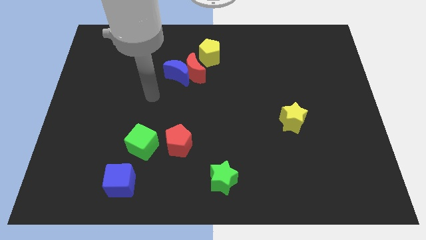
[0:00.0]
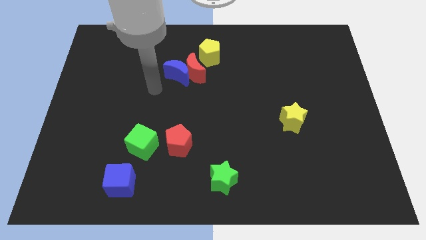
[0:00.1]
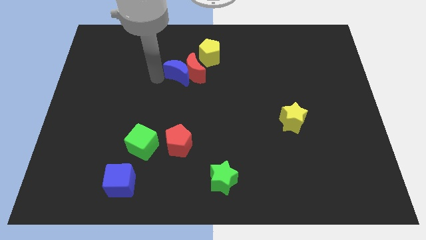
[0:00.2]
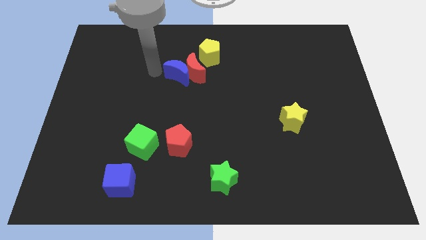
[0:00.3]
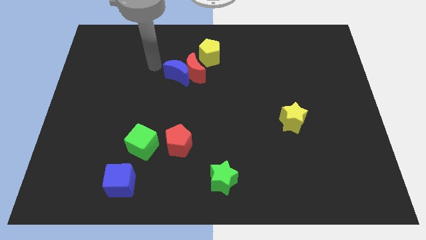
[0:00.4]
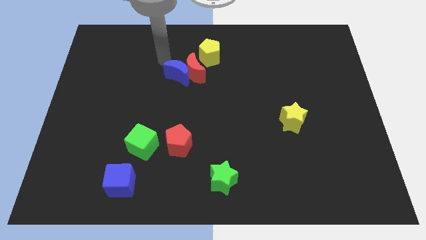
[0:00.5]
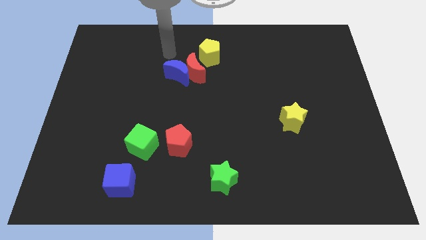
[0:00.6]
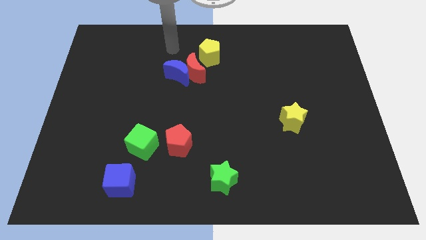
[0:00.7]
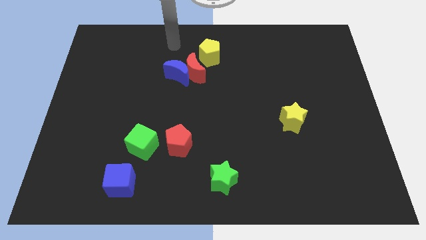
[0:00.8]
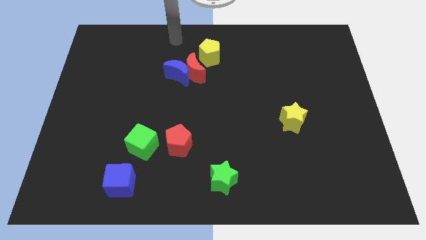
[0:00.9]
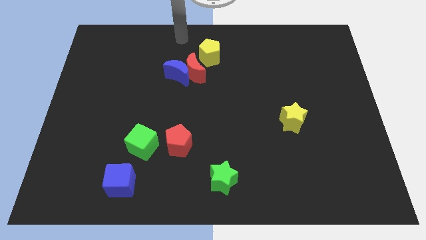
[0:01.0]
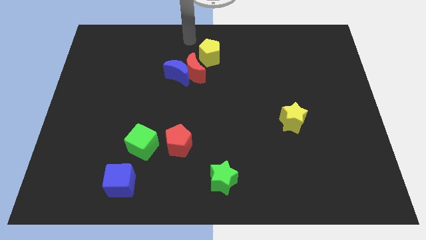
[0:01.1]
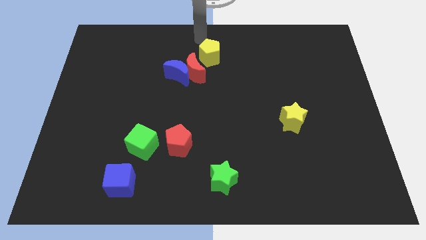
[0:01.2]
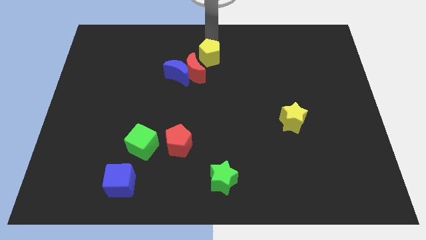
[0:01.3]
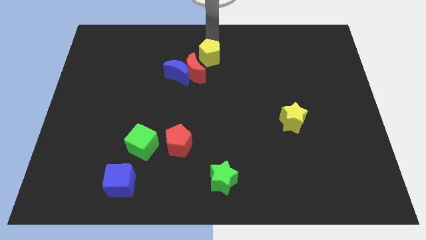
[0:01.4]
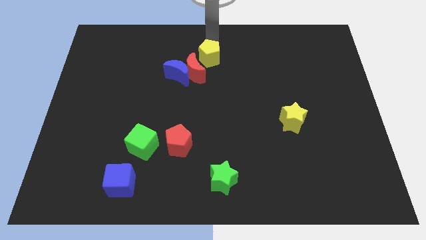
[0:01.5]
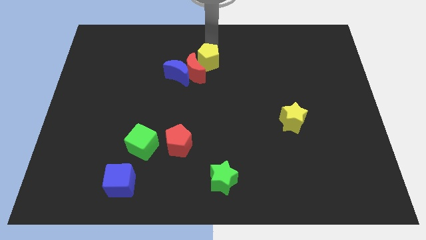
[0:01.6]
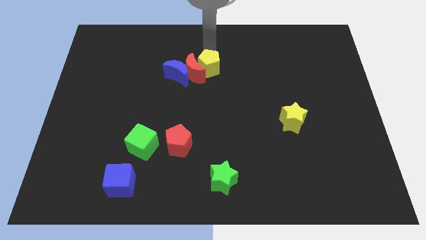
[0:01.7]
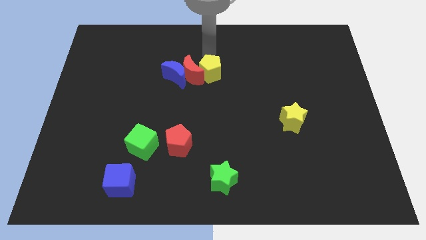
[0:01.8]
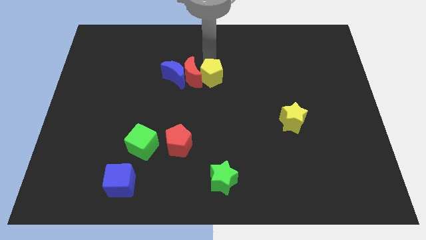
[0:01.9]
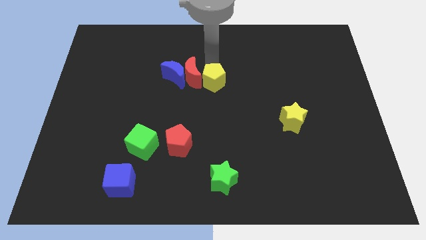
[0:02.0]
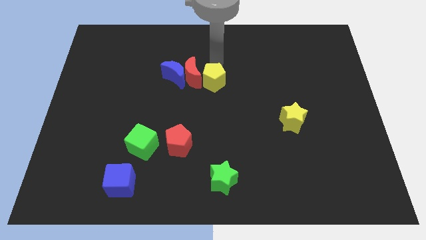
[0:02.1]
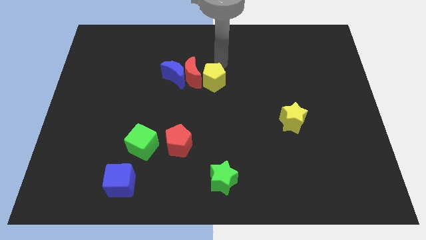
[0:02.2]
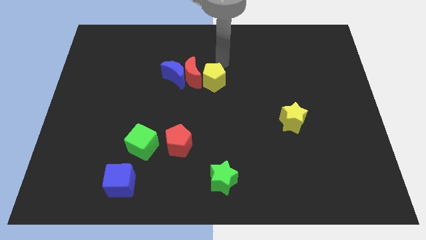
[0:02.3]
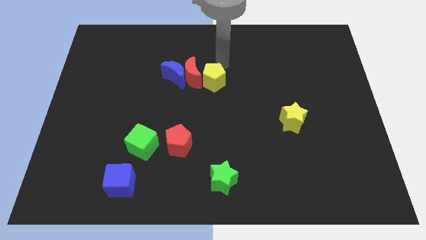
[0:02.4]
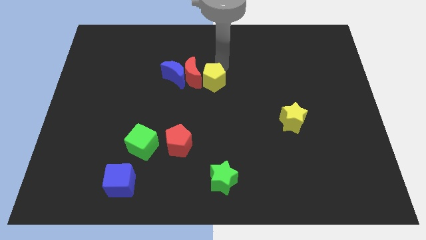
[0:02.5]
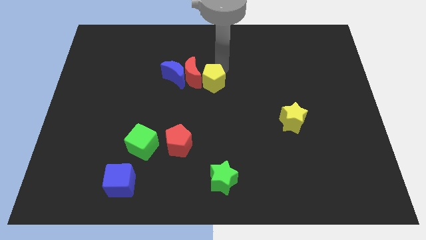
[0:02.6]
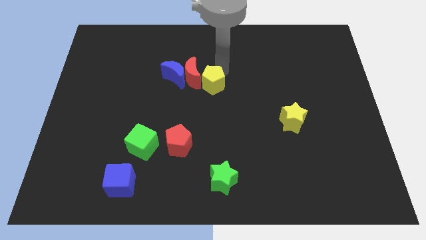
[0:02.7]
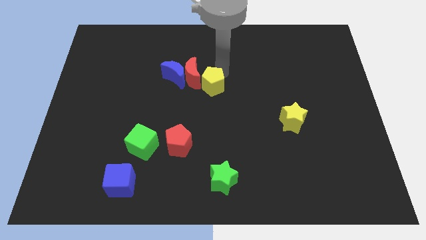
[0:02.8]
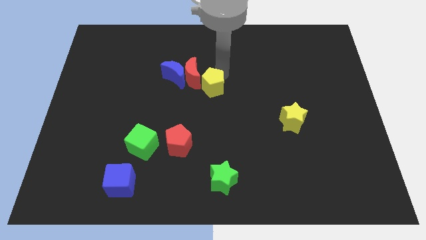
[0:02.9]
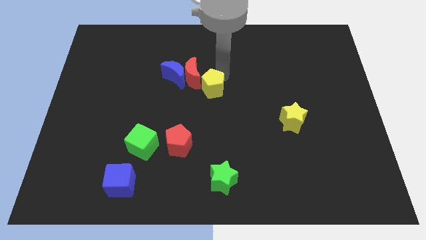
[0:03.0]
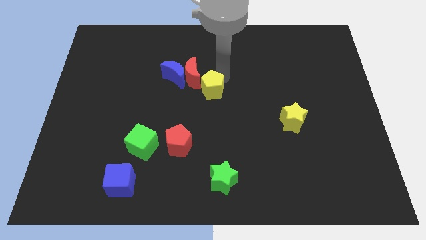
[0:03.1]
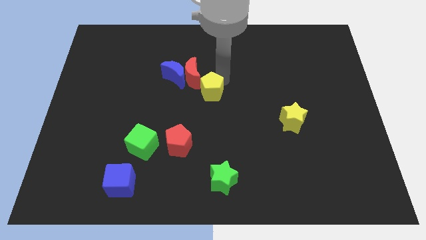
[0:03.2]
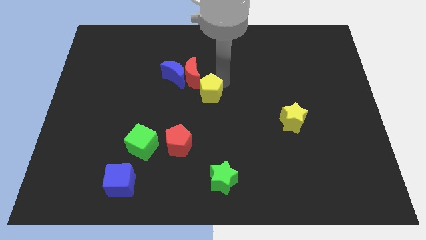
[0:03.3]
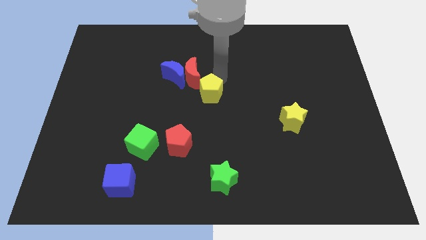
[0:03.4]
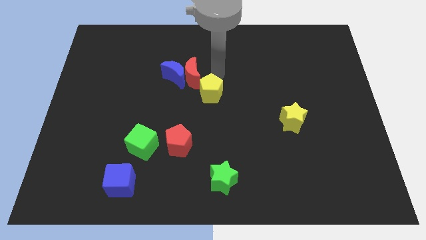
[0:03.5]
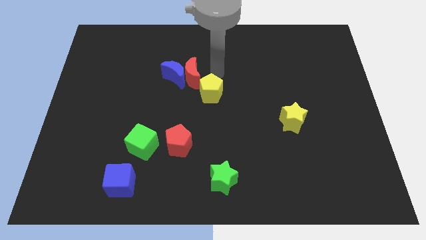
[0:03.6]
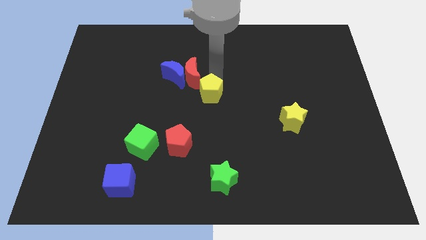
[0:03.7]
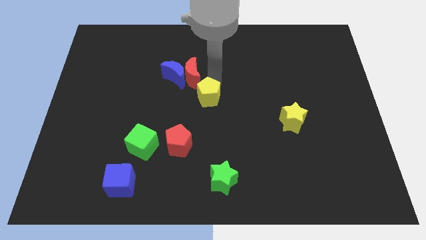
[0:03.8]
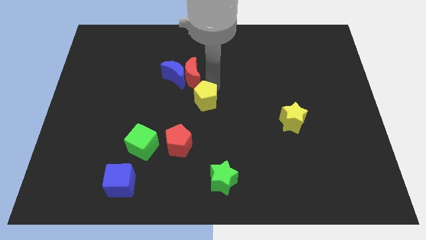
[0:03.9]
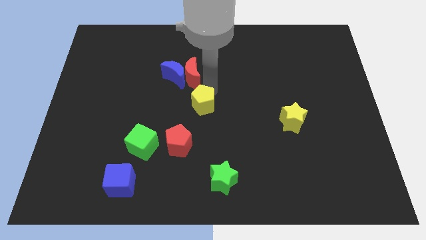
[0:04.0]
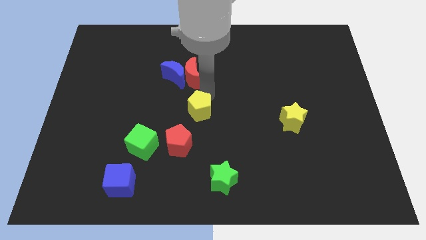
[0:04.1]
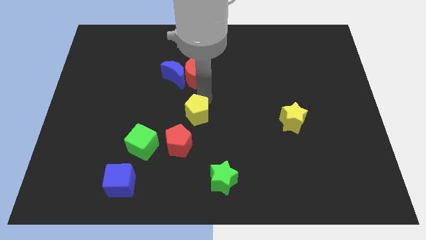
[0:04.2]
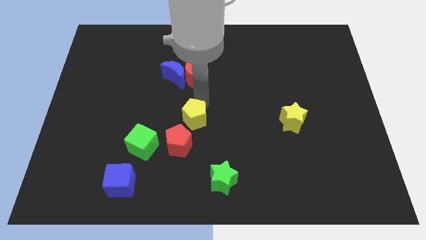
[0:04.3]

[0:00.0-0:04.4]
push the yellow pentagon downwards

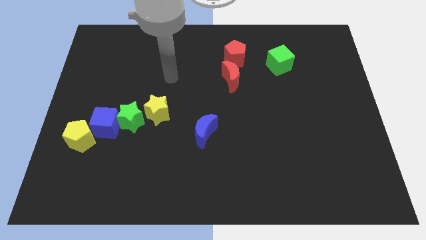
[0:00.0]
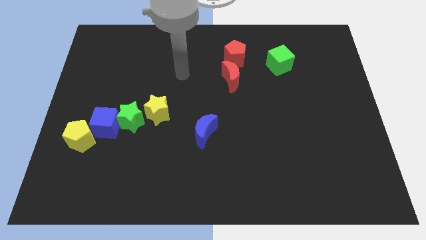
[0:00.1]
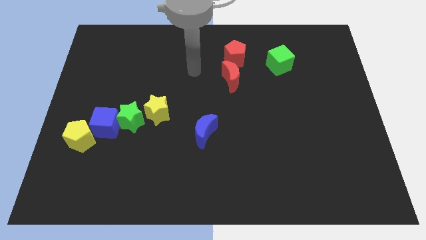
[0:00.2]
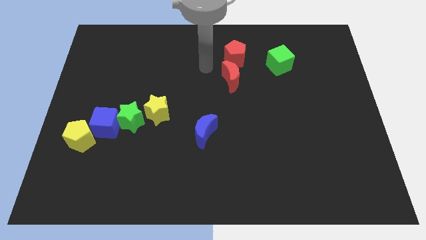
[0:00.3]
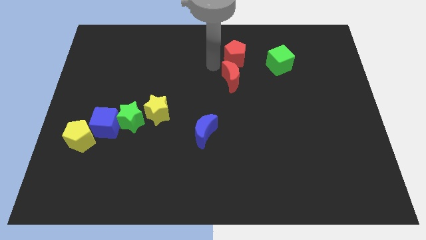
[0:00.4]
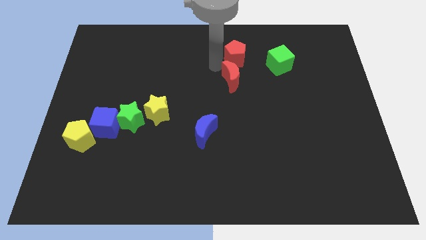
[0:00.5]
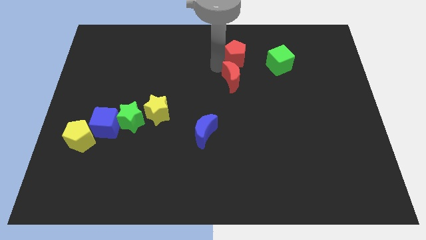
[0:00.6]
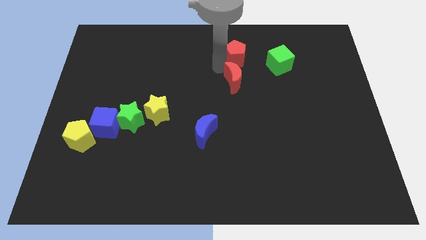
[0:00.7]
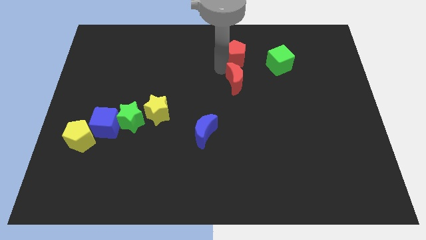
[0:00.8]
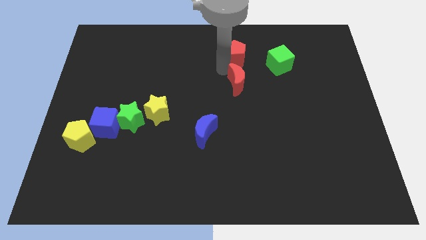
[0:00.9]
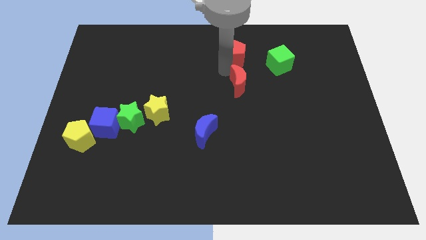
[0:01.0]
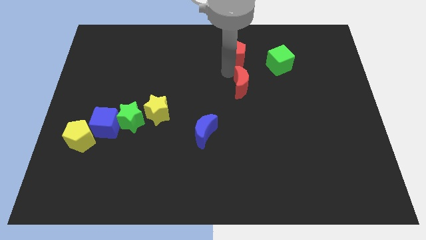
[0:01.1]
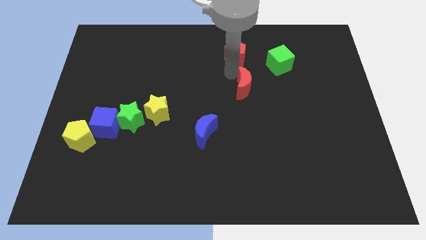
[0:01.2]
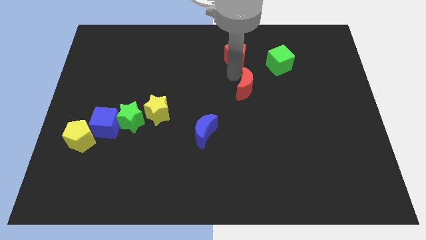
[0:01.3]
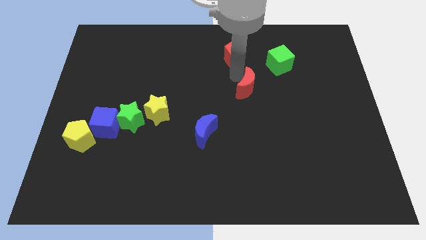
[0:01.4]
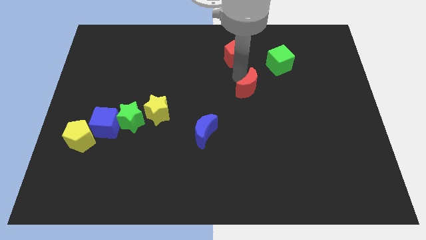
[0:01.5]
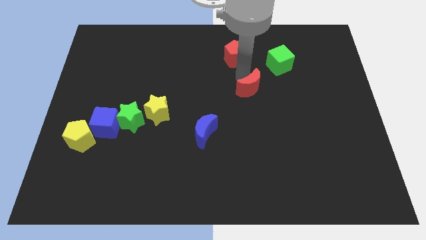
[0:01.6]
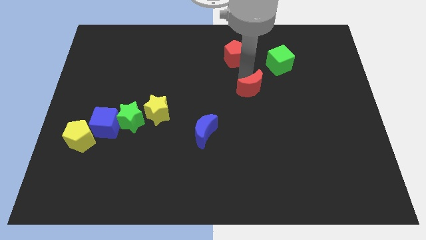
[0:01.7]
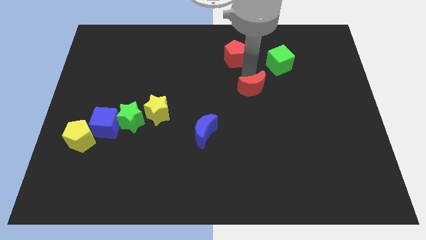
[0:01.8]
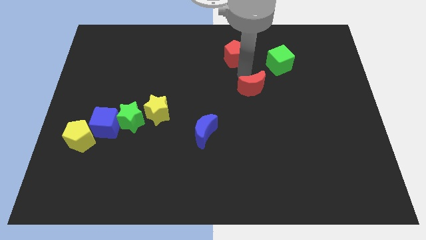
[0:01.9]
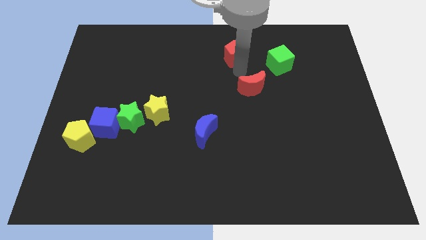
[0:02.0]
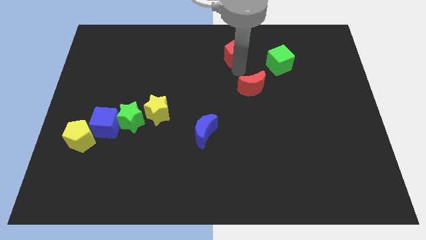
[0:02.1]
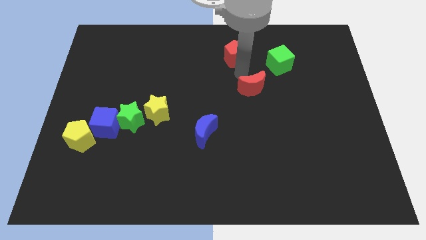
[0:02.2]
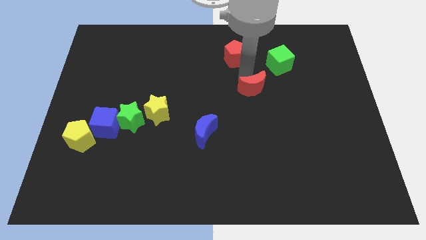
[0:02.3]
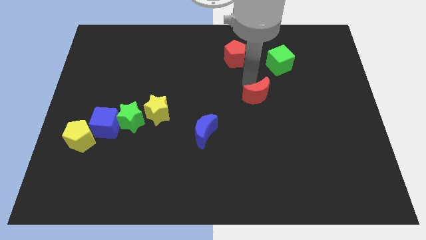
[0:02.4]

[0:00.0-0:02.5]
slightly push the red moon downwards and right

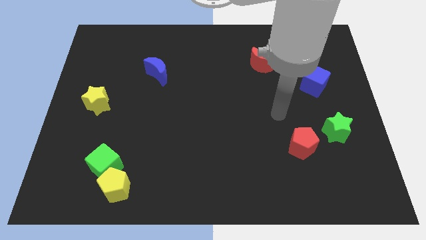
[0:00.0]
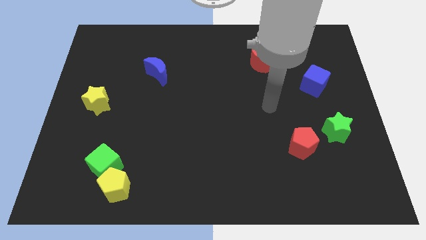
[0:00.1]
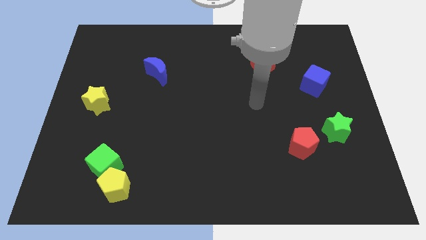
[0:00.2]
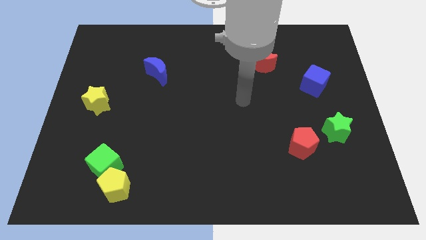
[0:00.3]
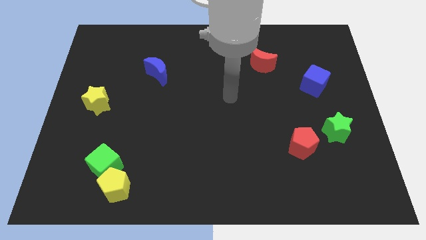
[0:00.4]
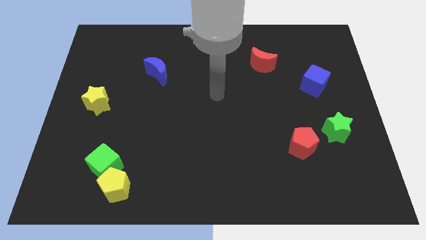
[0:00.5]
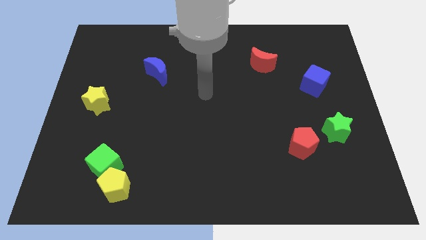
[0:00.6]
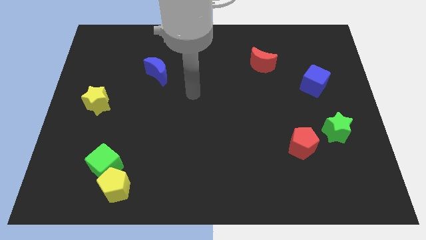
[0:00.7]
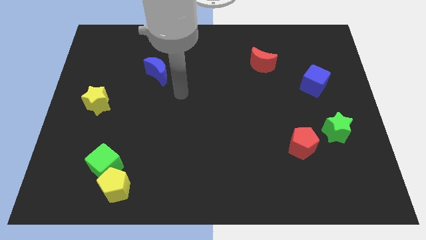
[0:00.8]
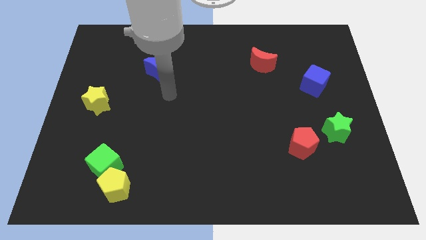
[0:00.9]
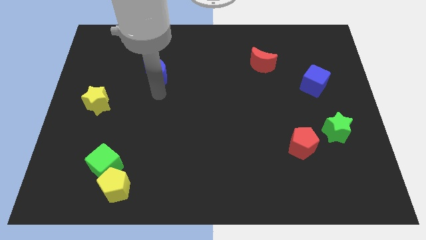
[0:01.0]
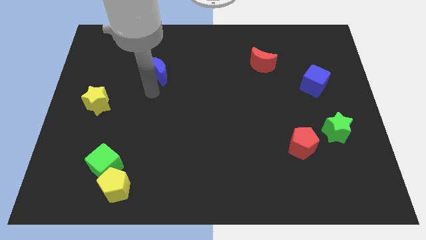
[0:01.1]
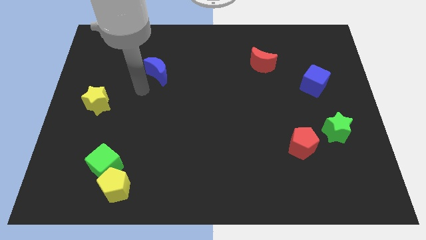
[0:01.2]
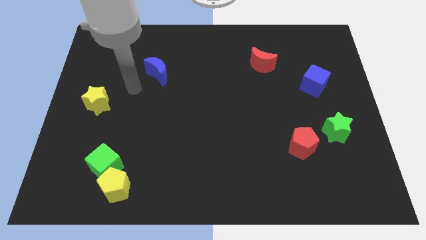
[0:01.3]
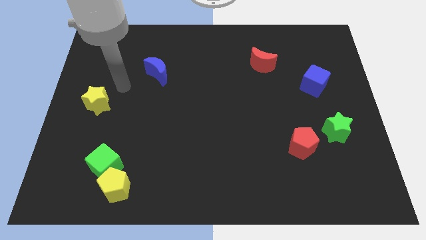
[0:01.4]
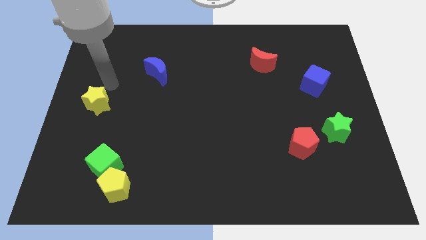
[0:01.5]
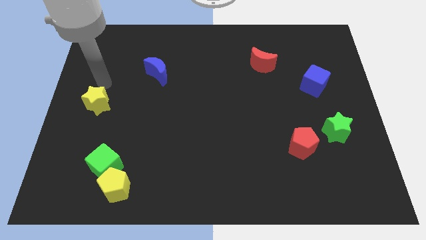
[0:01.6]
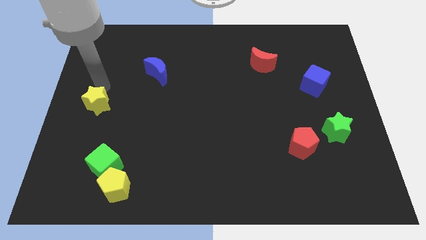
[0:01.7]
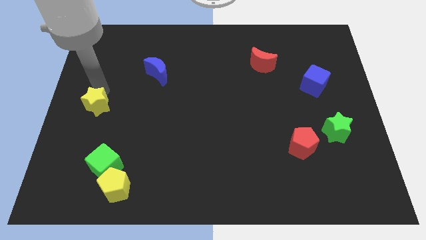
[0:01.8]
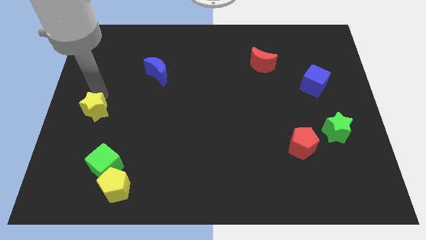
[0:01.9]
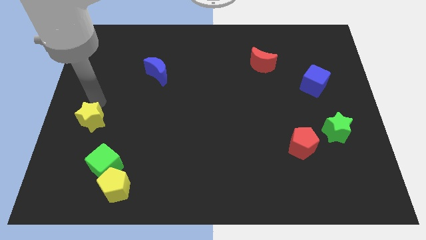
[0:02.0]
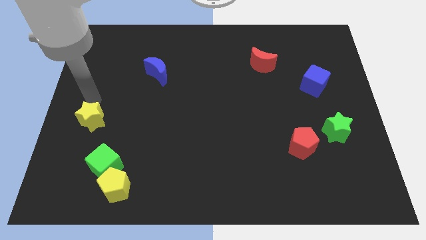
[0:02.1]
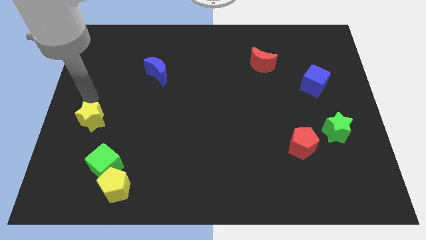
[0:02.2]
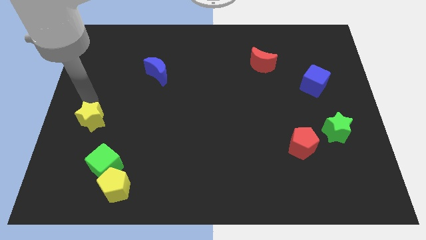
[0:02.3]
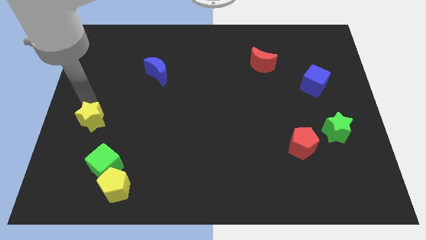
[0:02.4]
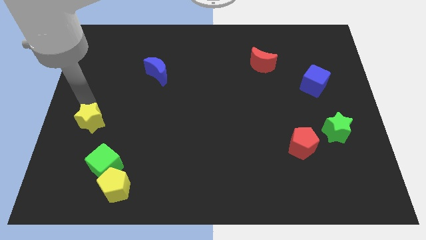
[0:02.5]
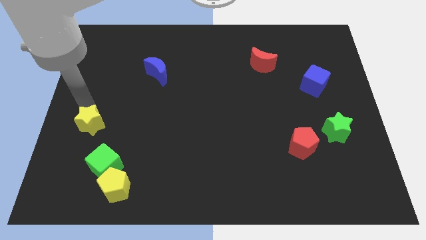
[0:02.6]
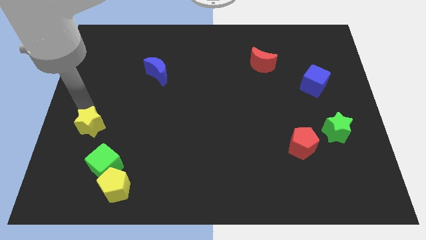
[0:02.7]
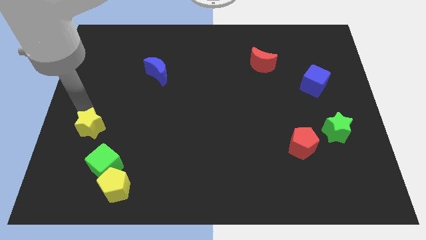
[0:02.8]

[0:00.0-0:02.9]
move the yellow star downwards a little bit
